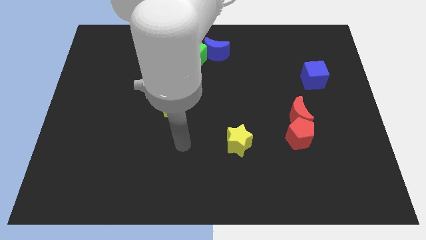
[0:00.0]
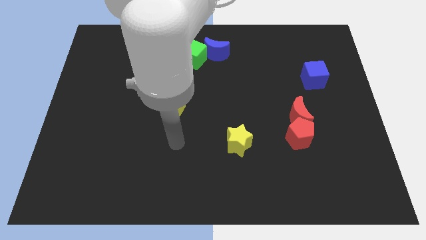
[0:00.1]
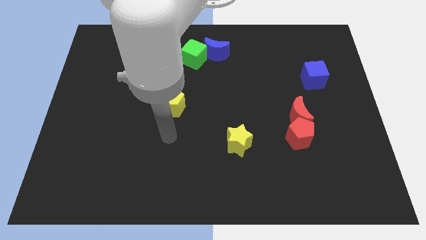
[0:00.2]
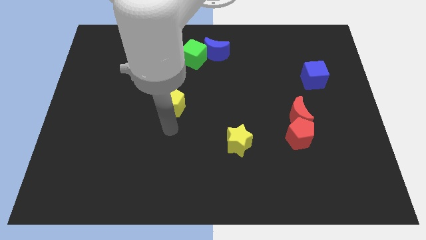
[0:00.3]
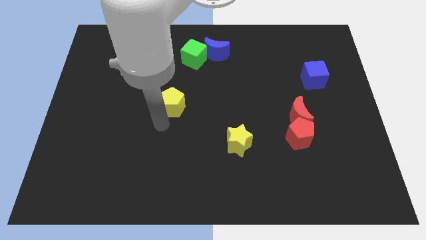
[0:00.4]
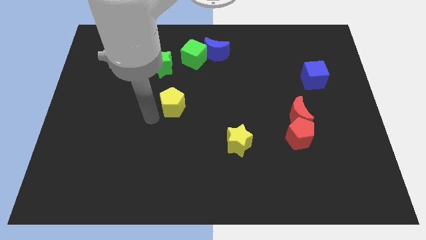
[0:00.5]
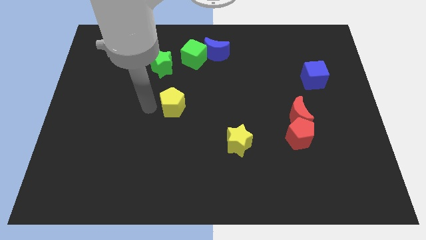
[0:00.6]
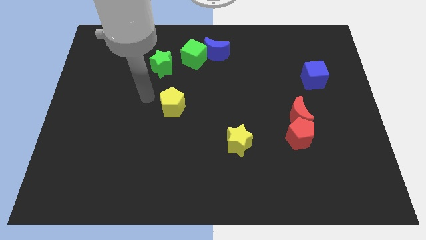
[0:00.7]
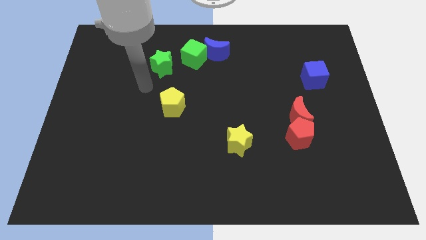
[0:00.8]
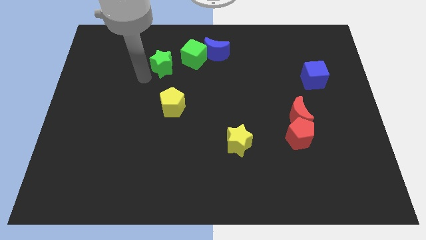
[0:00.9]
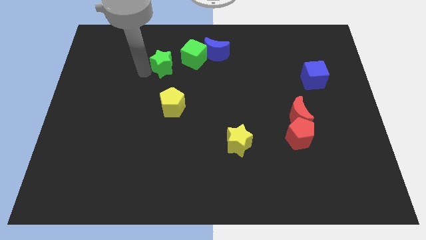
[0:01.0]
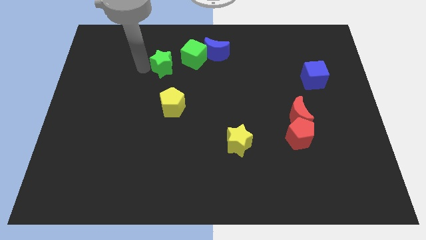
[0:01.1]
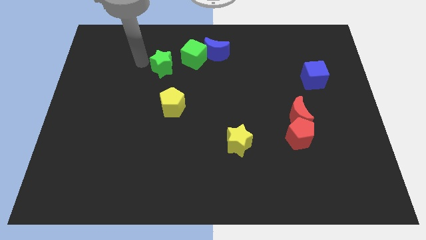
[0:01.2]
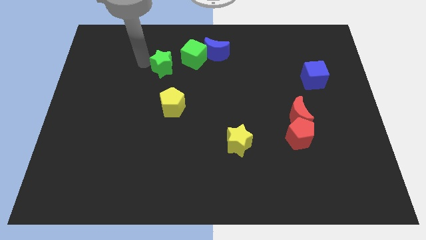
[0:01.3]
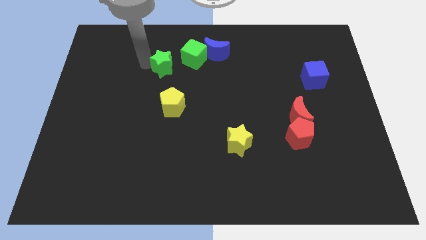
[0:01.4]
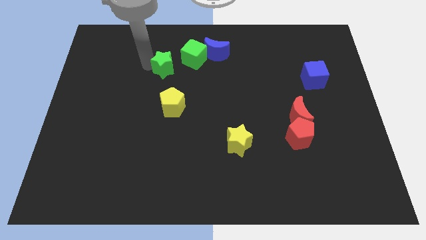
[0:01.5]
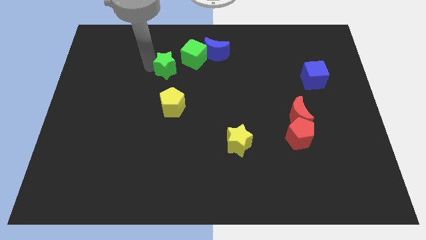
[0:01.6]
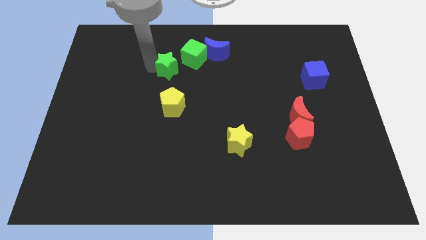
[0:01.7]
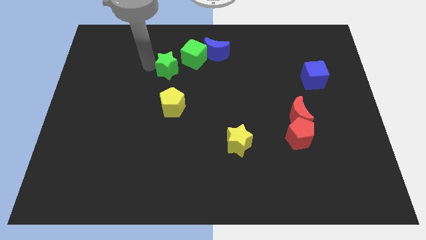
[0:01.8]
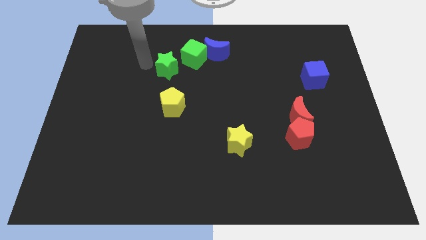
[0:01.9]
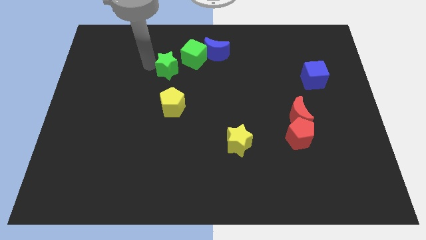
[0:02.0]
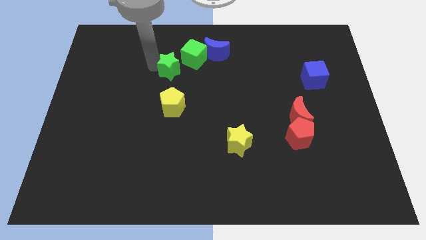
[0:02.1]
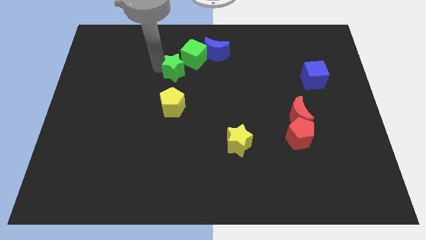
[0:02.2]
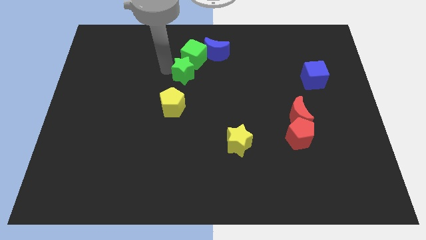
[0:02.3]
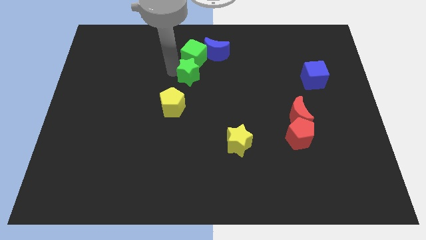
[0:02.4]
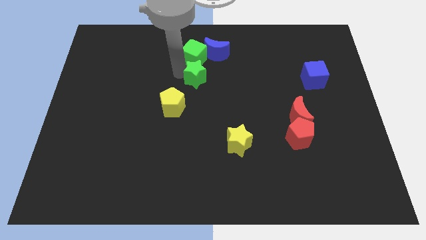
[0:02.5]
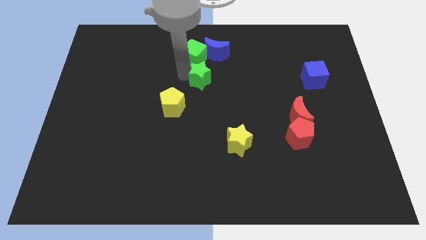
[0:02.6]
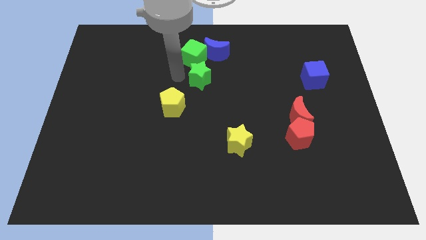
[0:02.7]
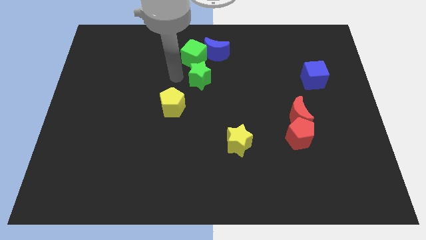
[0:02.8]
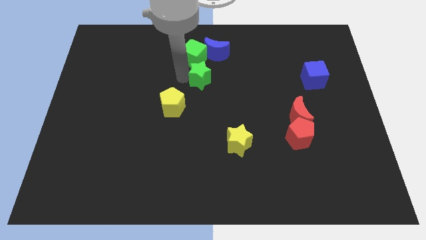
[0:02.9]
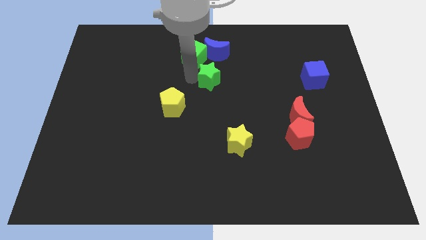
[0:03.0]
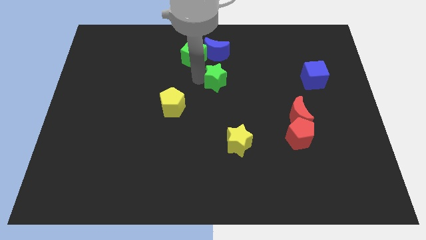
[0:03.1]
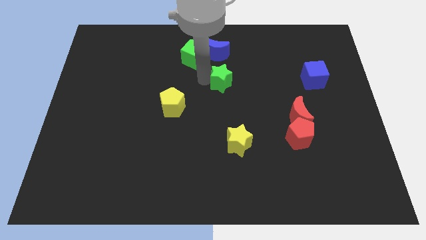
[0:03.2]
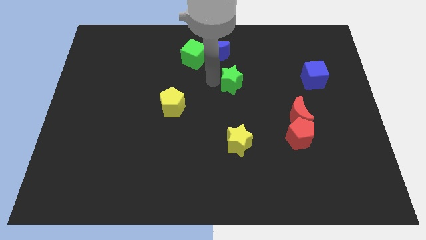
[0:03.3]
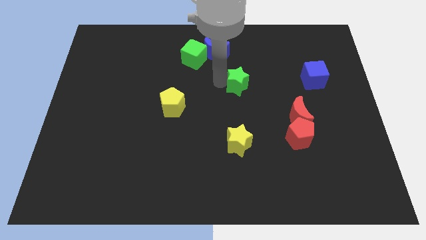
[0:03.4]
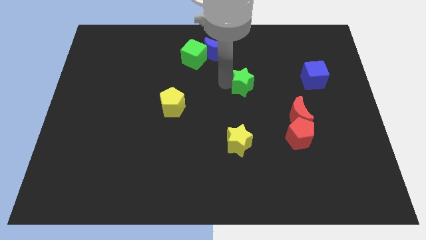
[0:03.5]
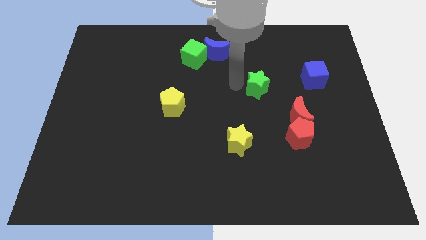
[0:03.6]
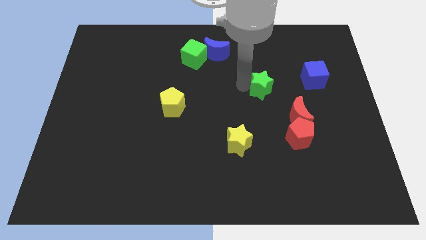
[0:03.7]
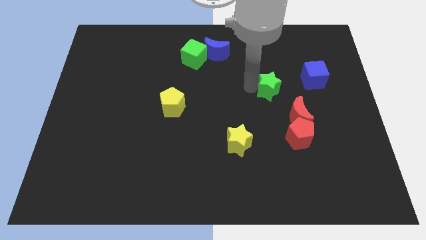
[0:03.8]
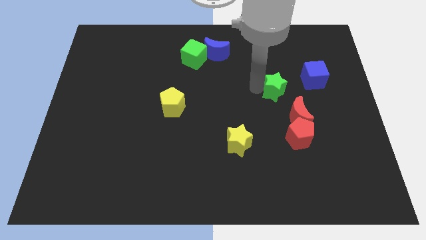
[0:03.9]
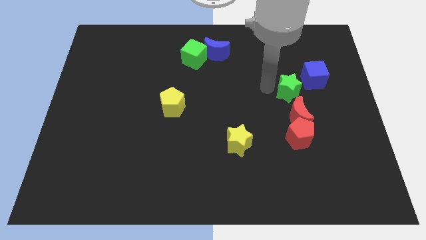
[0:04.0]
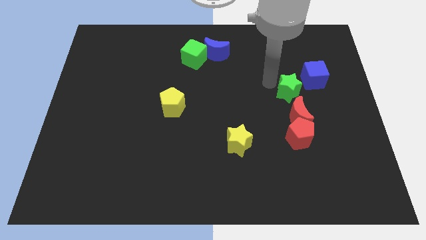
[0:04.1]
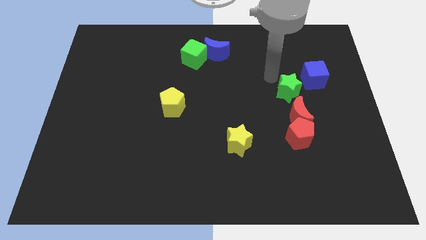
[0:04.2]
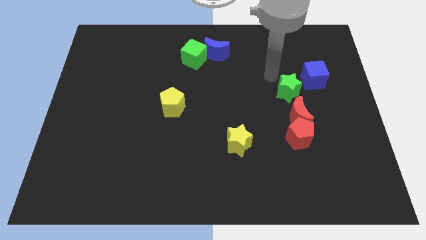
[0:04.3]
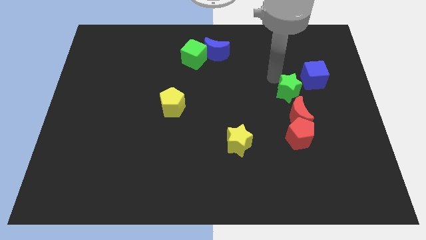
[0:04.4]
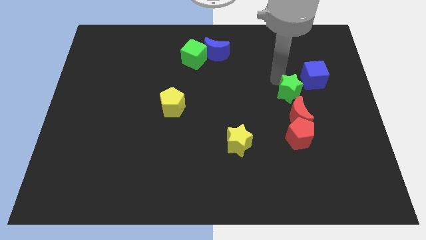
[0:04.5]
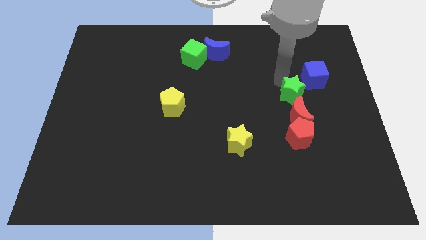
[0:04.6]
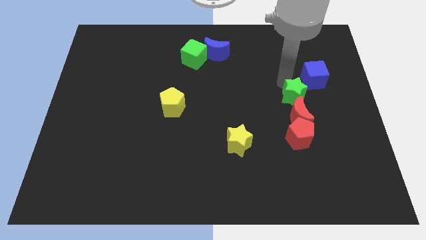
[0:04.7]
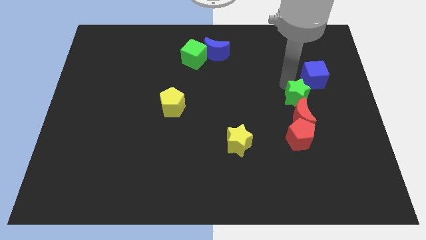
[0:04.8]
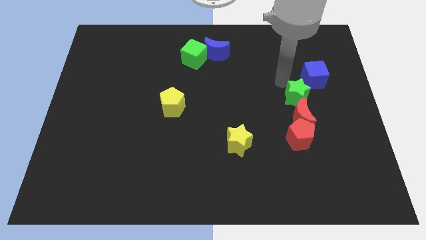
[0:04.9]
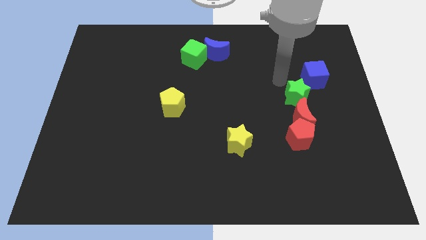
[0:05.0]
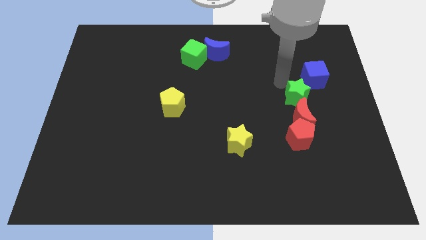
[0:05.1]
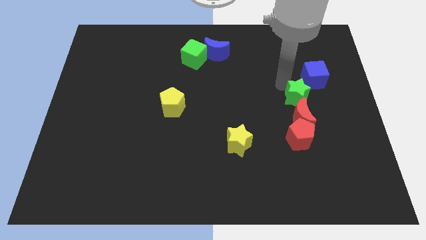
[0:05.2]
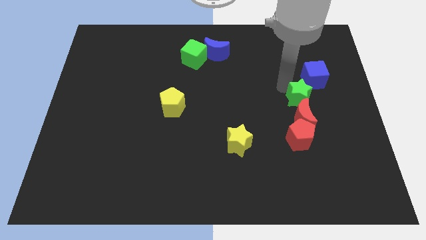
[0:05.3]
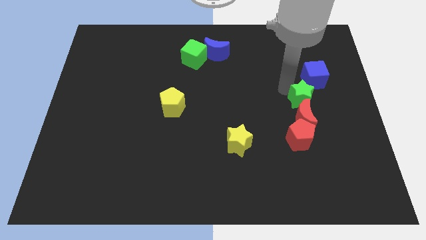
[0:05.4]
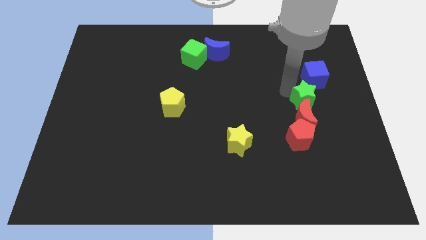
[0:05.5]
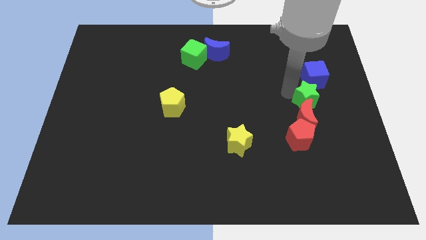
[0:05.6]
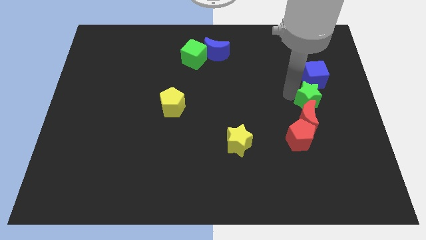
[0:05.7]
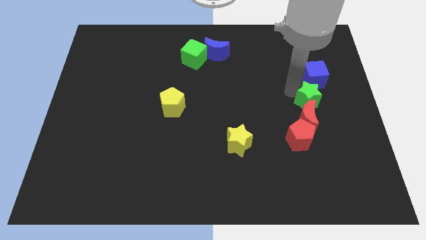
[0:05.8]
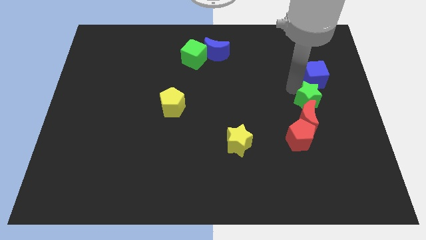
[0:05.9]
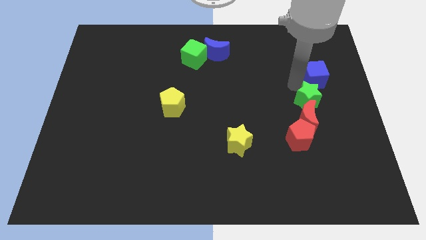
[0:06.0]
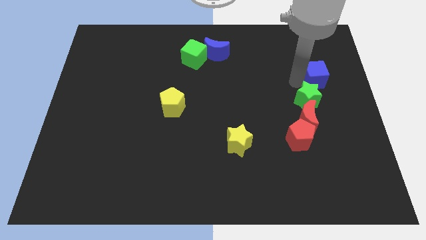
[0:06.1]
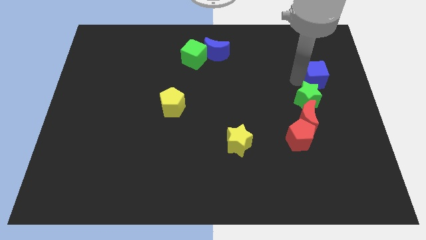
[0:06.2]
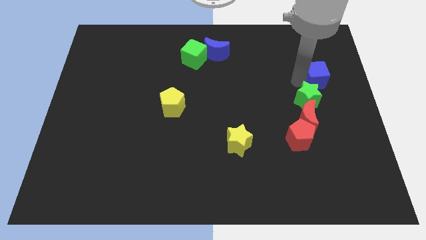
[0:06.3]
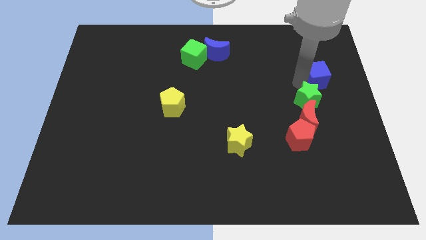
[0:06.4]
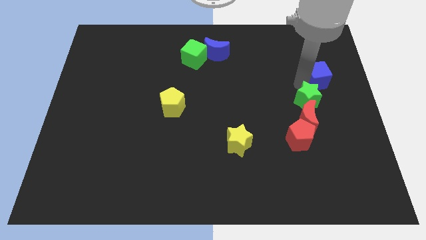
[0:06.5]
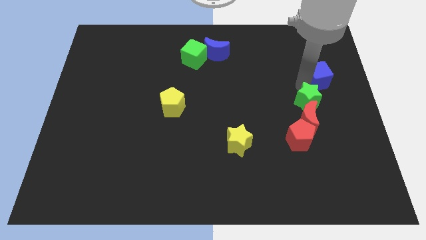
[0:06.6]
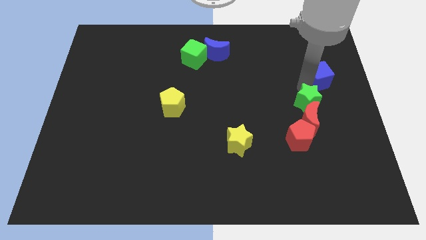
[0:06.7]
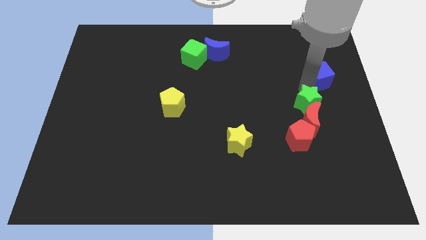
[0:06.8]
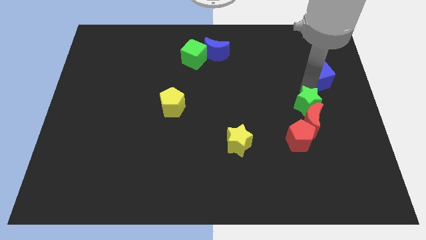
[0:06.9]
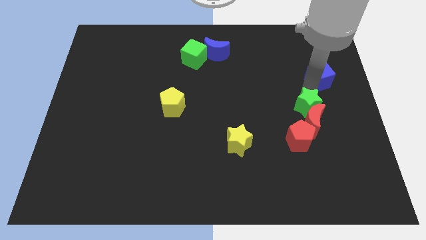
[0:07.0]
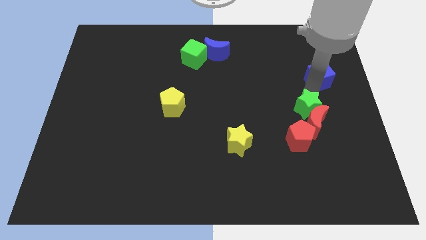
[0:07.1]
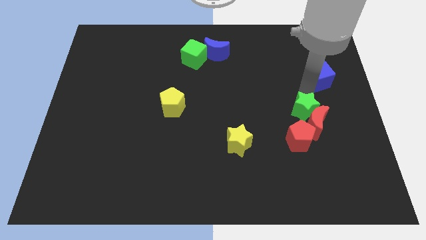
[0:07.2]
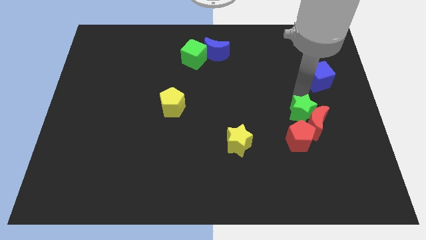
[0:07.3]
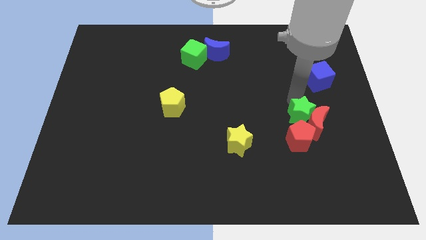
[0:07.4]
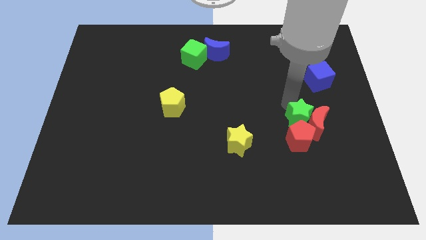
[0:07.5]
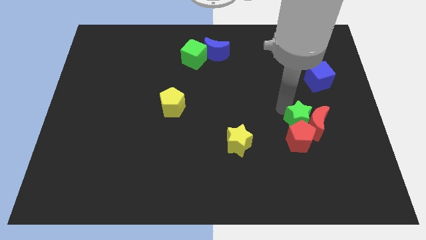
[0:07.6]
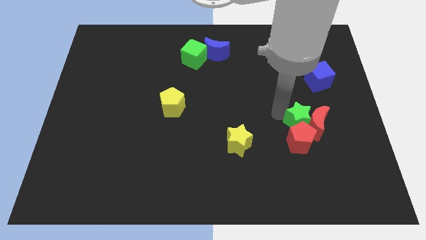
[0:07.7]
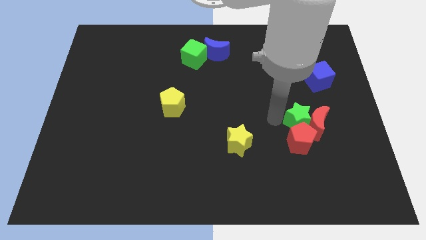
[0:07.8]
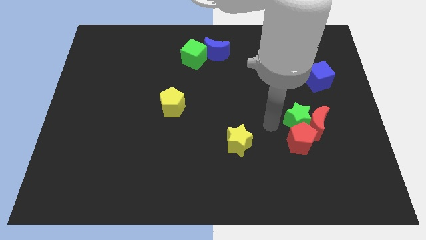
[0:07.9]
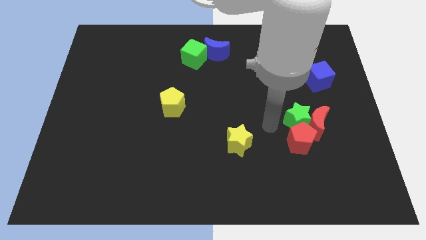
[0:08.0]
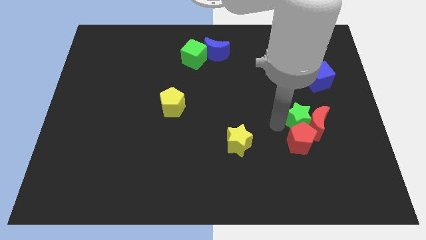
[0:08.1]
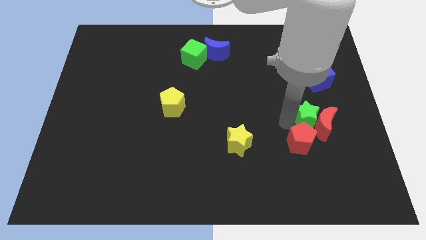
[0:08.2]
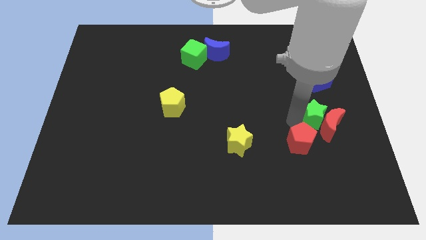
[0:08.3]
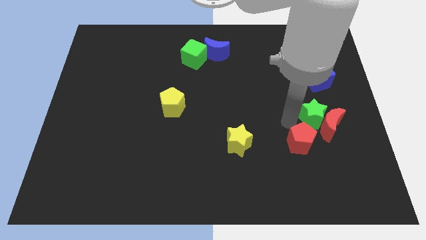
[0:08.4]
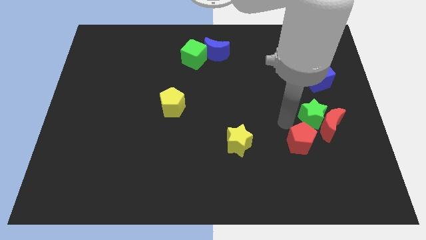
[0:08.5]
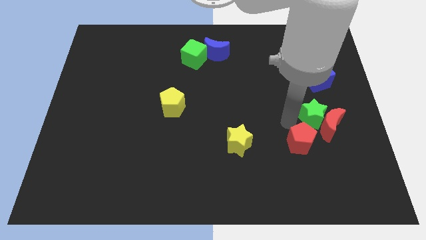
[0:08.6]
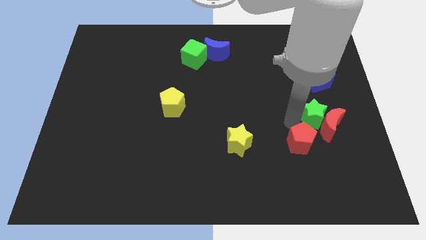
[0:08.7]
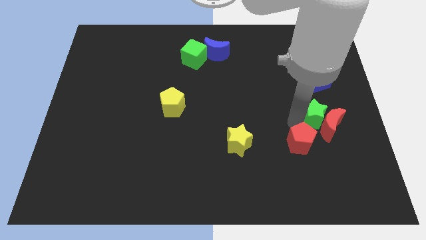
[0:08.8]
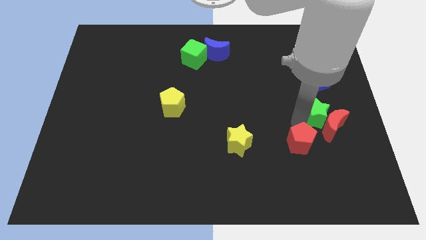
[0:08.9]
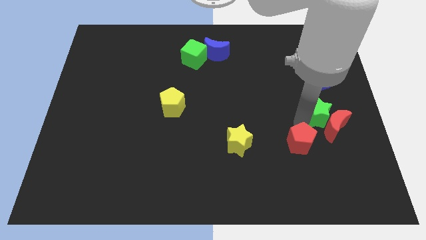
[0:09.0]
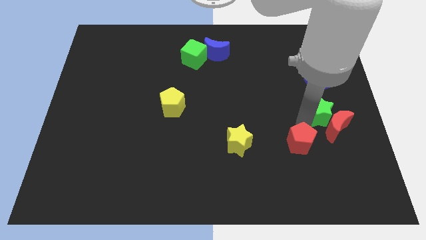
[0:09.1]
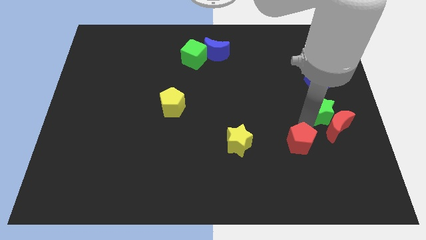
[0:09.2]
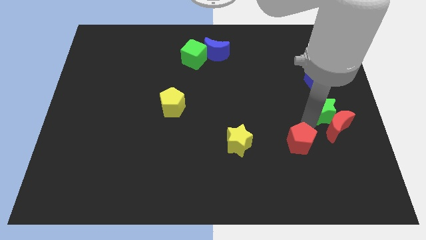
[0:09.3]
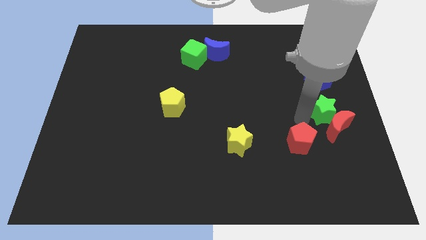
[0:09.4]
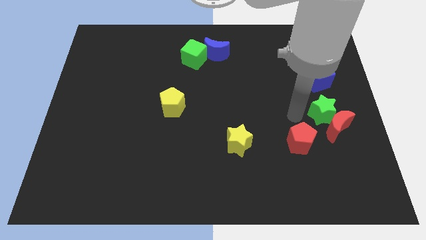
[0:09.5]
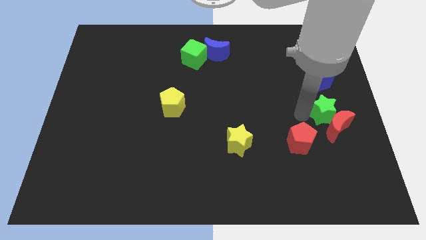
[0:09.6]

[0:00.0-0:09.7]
slide the green star to the center right
